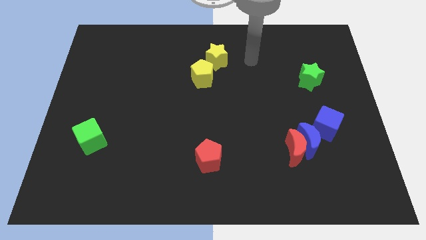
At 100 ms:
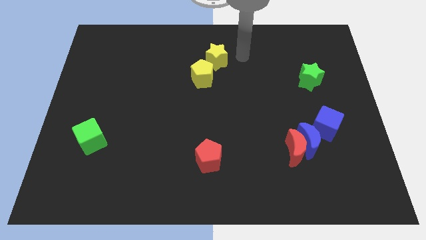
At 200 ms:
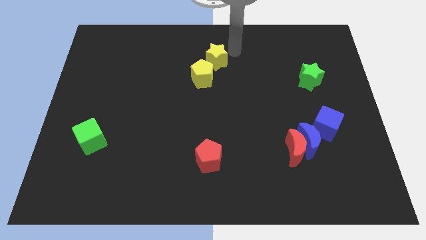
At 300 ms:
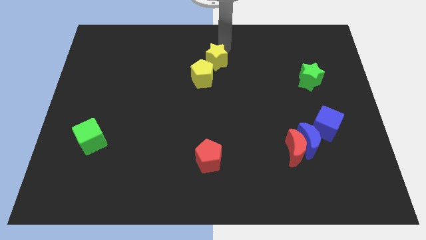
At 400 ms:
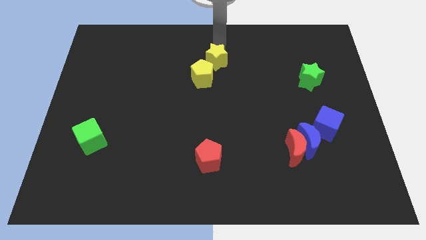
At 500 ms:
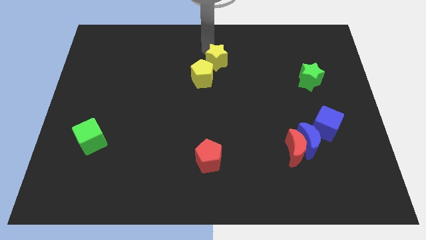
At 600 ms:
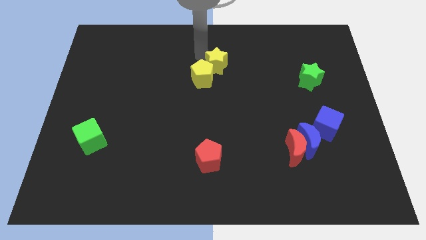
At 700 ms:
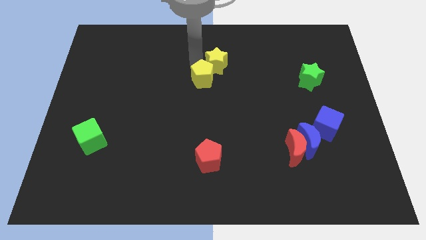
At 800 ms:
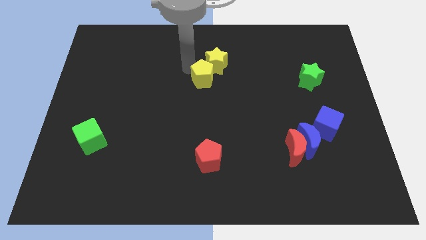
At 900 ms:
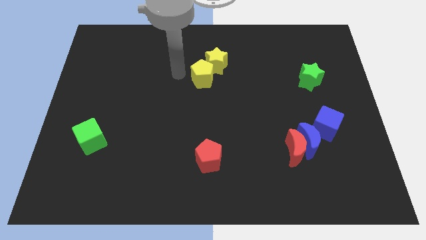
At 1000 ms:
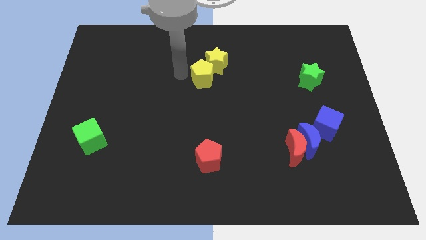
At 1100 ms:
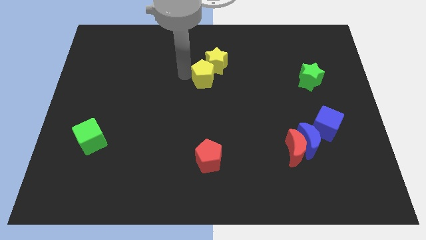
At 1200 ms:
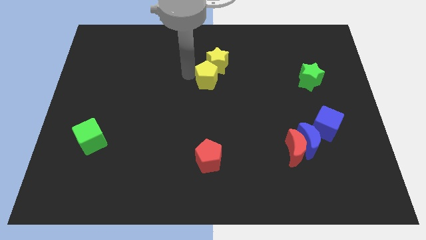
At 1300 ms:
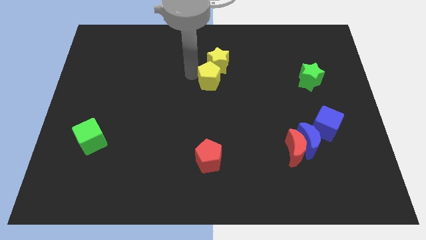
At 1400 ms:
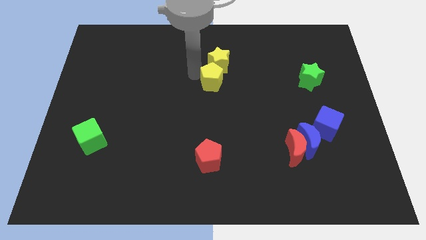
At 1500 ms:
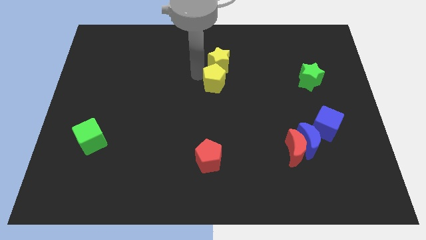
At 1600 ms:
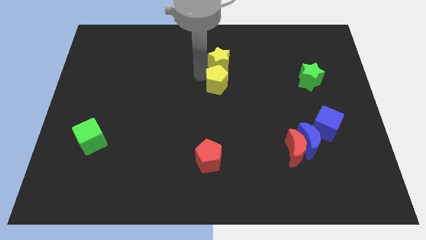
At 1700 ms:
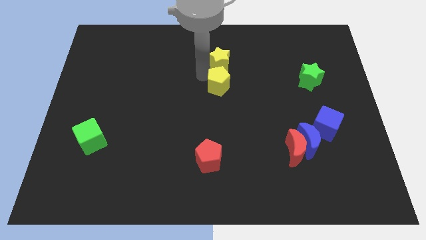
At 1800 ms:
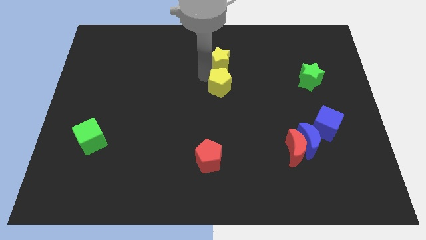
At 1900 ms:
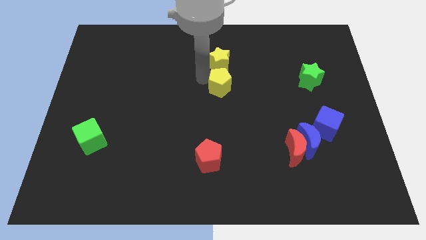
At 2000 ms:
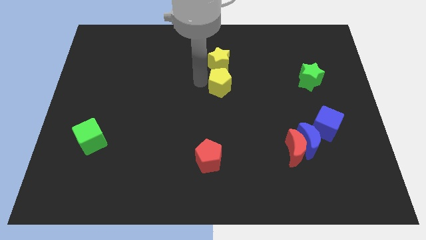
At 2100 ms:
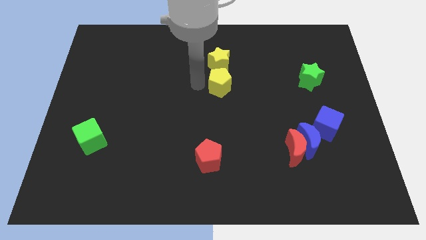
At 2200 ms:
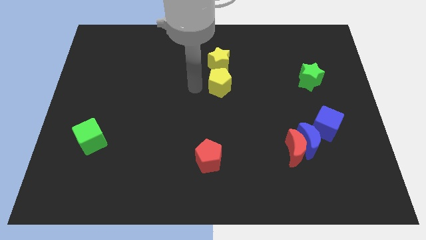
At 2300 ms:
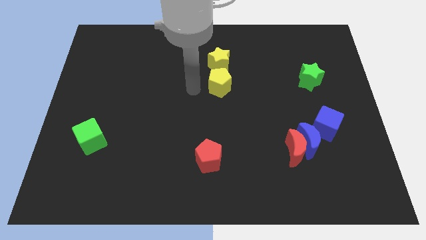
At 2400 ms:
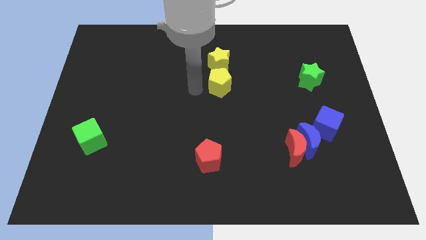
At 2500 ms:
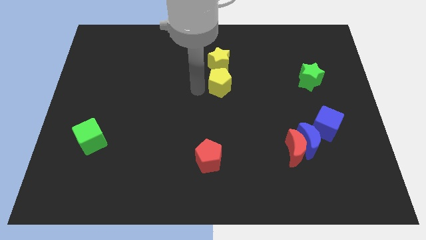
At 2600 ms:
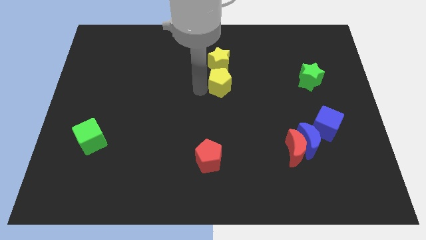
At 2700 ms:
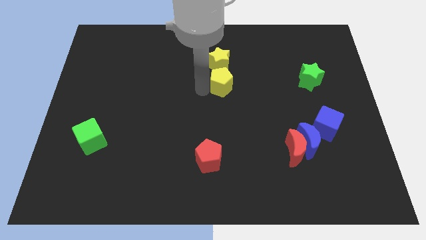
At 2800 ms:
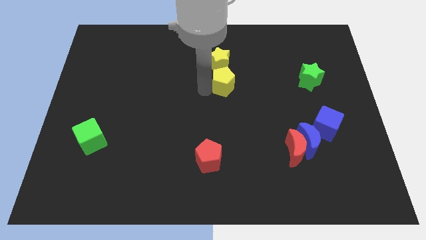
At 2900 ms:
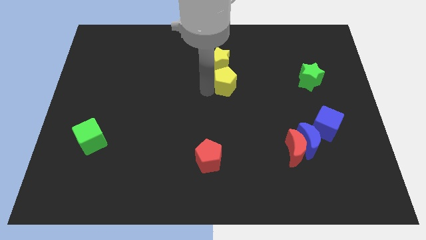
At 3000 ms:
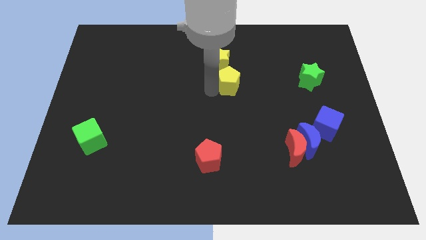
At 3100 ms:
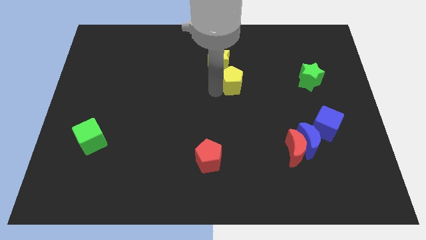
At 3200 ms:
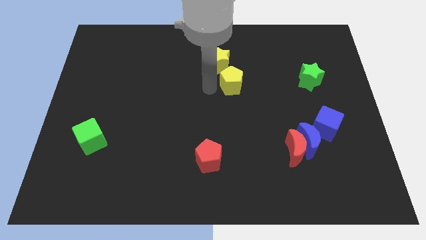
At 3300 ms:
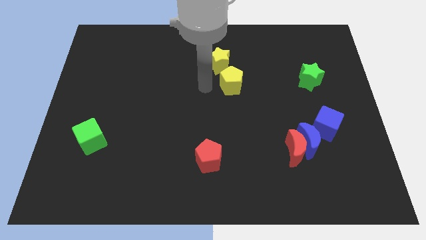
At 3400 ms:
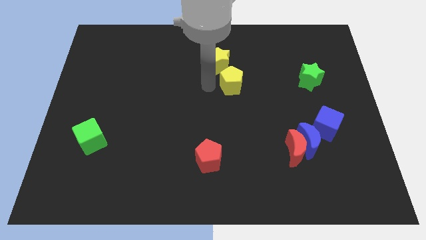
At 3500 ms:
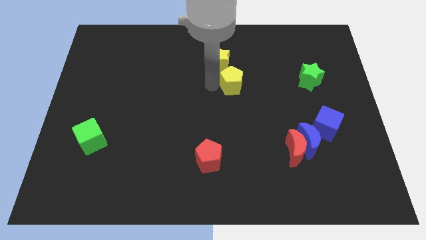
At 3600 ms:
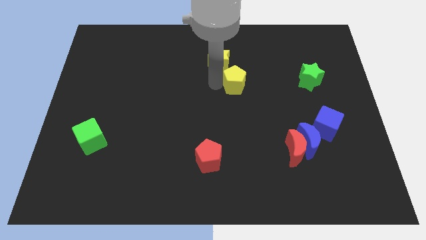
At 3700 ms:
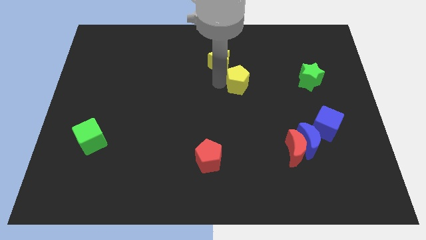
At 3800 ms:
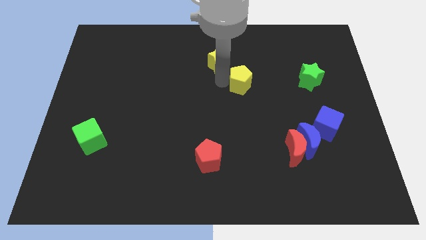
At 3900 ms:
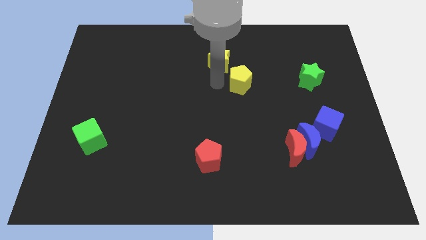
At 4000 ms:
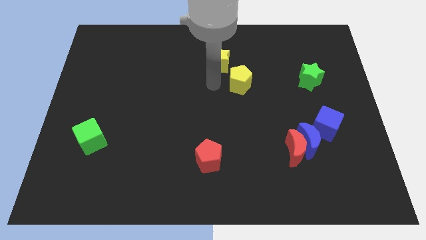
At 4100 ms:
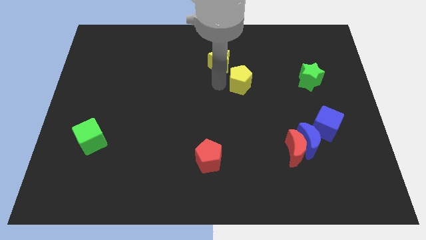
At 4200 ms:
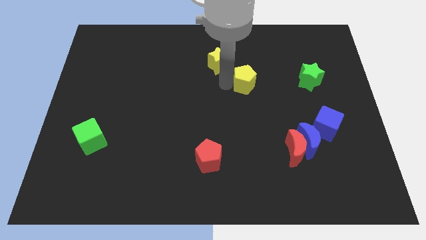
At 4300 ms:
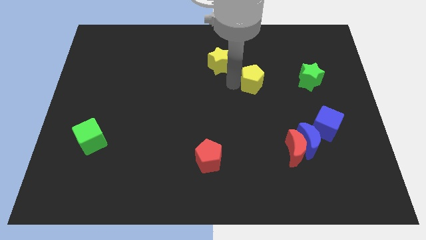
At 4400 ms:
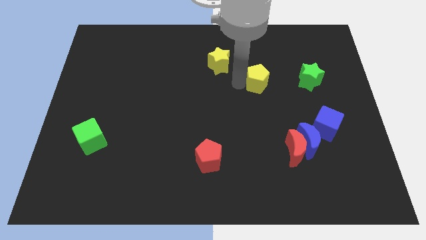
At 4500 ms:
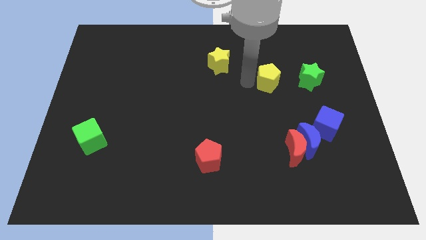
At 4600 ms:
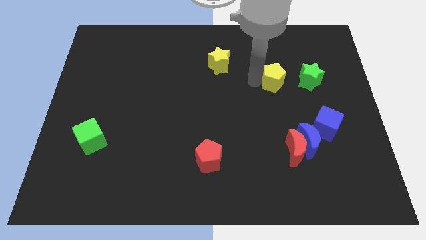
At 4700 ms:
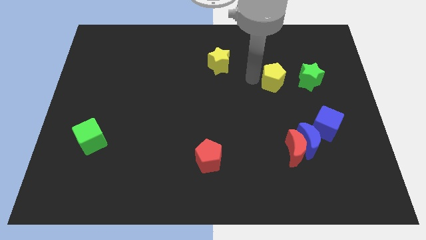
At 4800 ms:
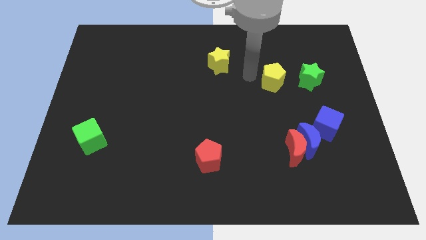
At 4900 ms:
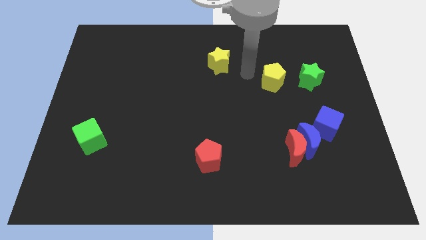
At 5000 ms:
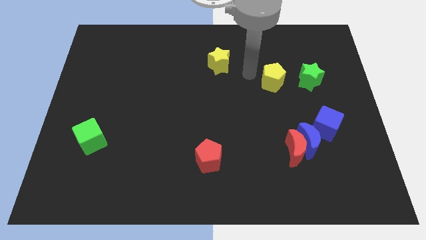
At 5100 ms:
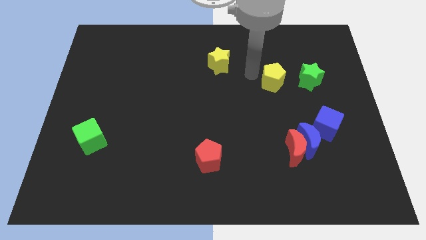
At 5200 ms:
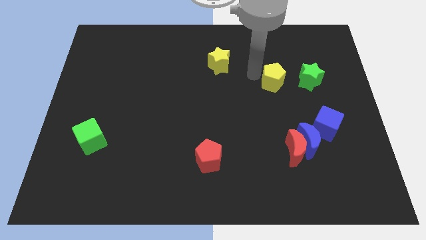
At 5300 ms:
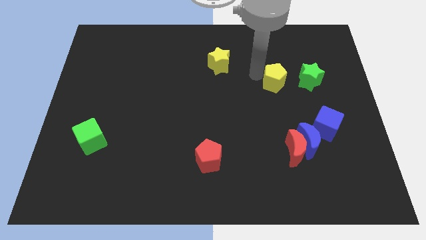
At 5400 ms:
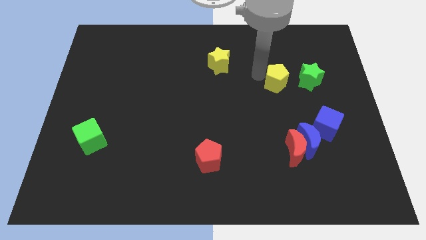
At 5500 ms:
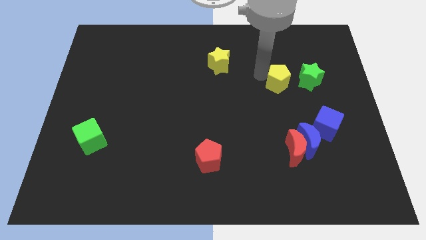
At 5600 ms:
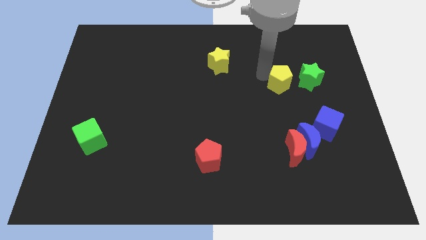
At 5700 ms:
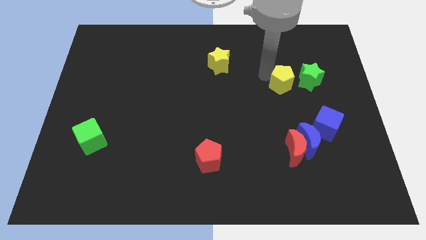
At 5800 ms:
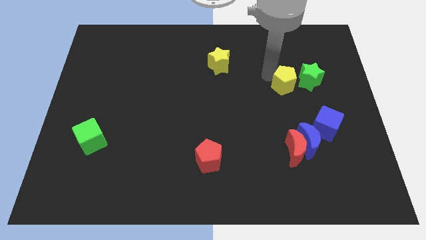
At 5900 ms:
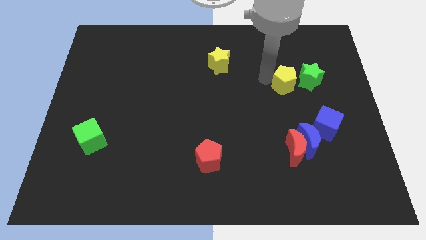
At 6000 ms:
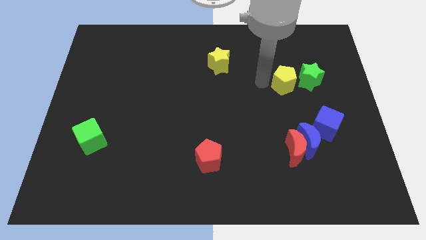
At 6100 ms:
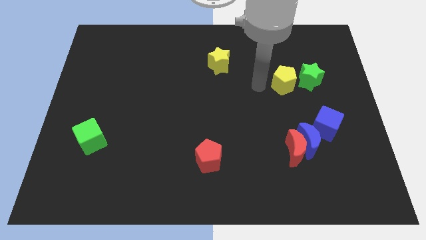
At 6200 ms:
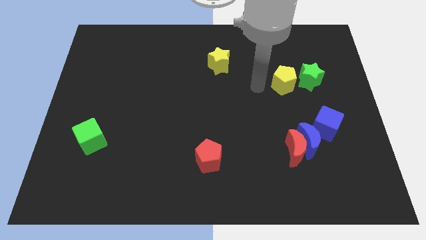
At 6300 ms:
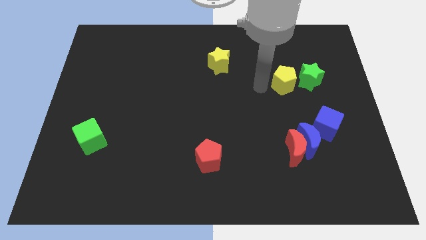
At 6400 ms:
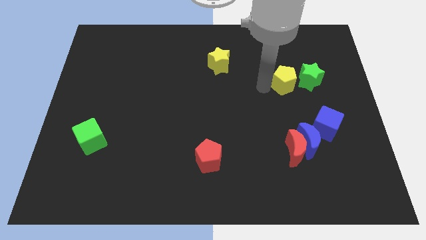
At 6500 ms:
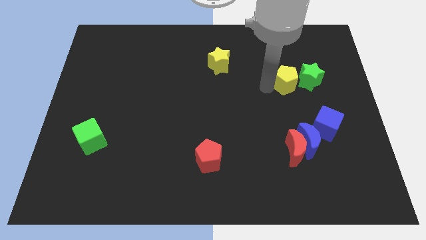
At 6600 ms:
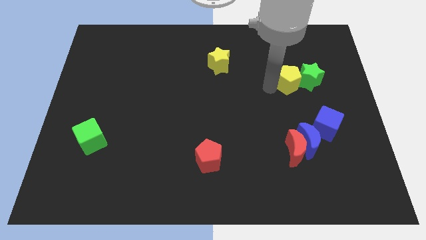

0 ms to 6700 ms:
move the yellow pentagon next to the green star

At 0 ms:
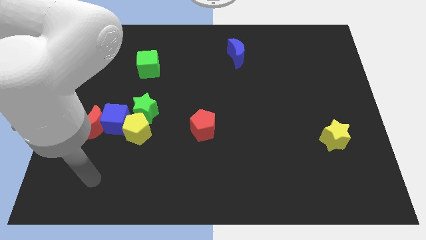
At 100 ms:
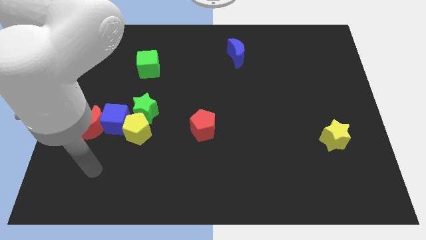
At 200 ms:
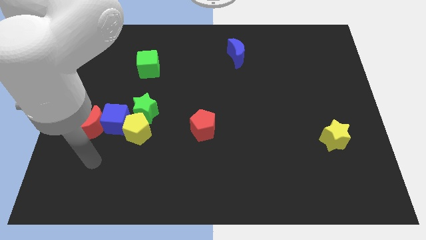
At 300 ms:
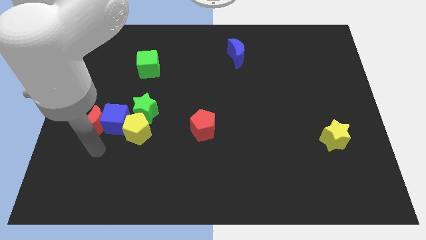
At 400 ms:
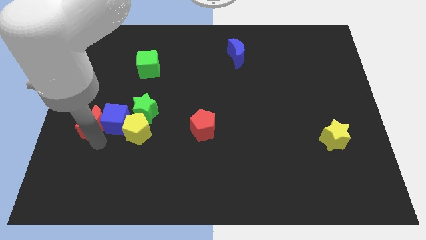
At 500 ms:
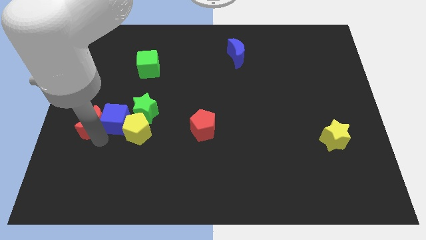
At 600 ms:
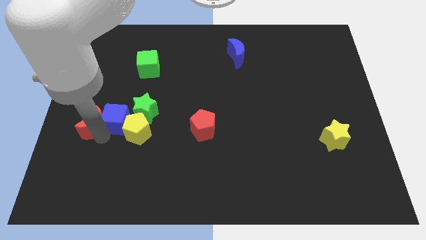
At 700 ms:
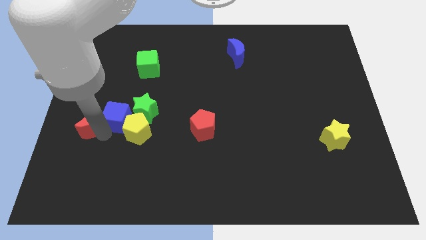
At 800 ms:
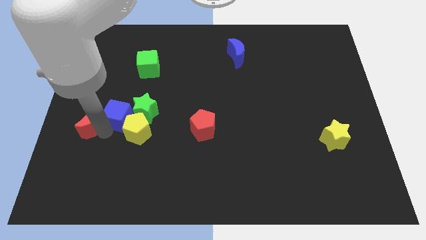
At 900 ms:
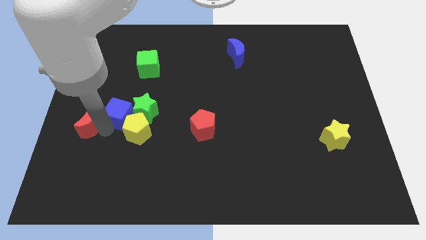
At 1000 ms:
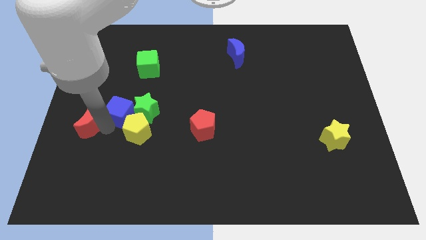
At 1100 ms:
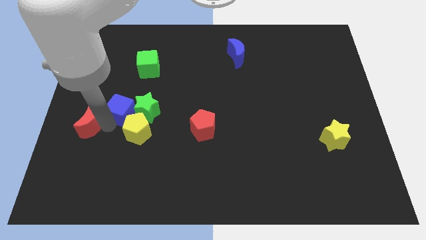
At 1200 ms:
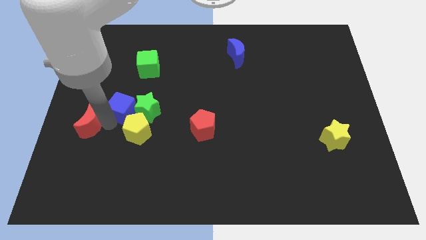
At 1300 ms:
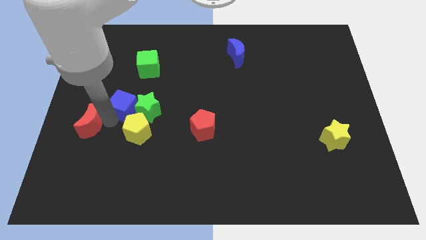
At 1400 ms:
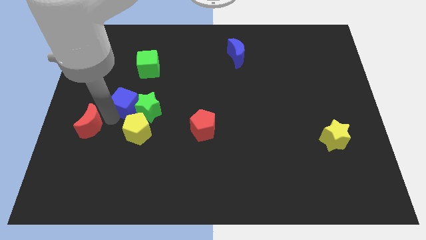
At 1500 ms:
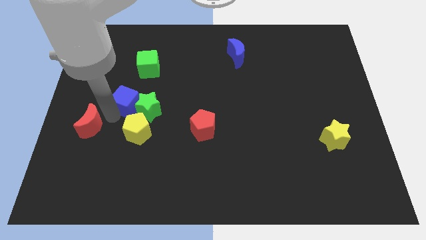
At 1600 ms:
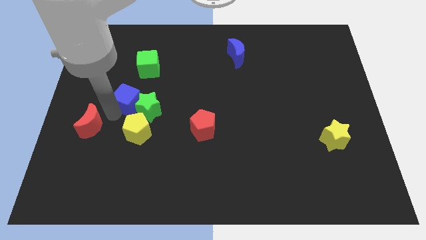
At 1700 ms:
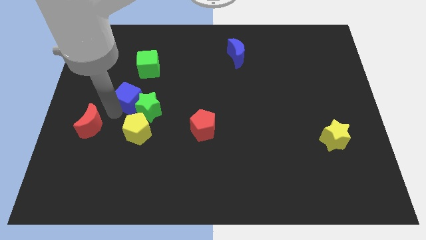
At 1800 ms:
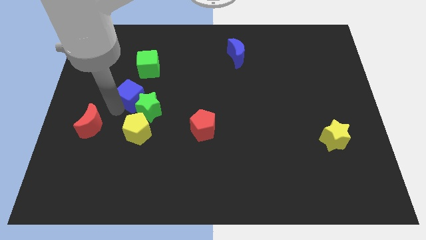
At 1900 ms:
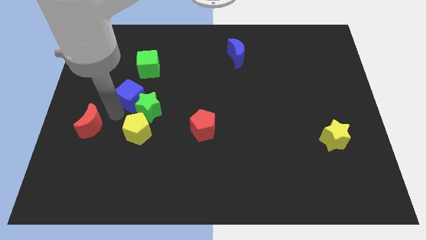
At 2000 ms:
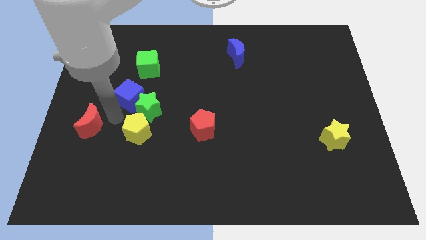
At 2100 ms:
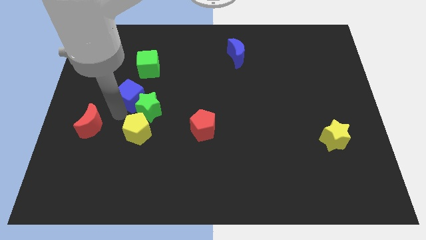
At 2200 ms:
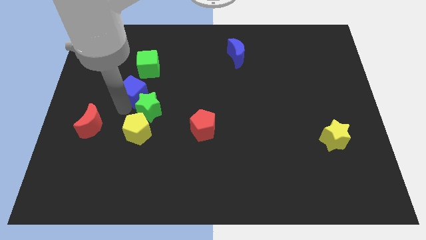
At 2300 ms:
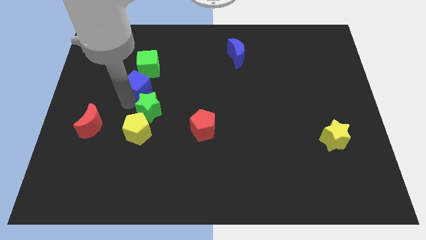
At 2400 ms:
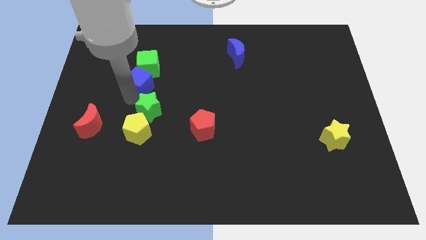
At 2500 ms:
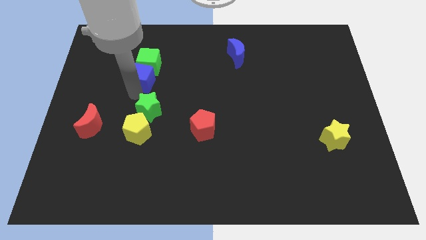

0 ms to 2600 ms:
push the blue cube to the green cube
